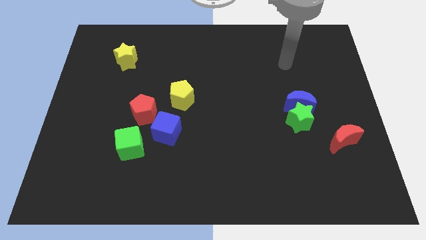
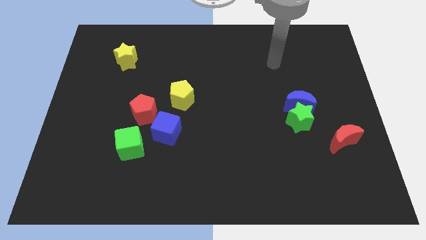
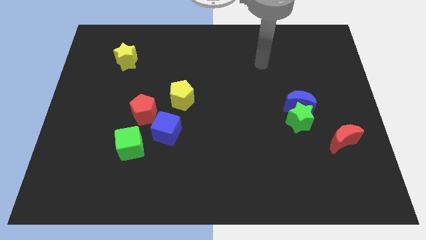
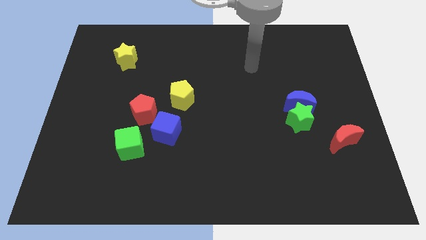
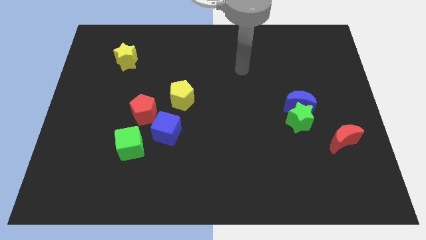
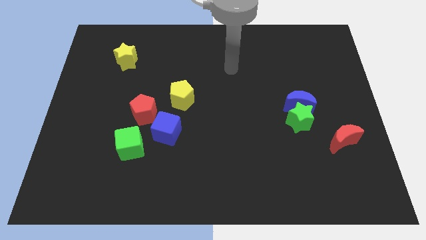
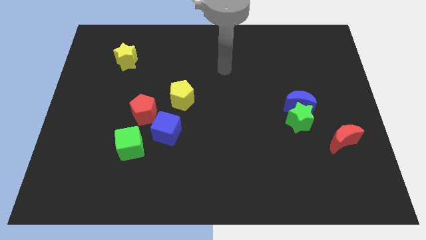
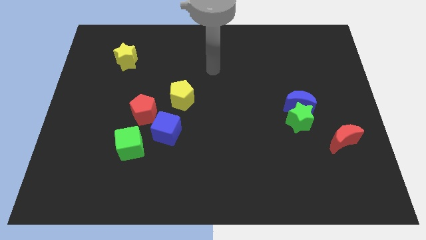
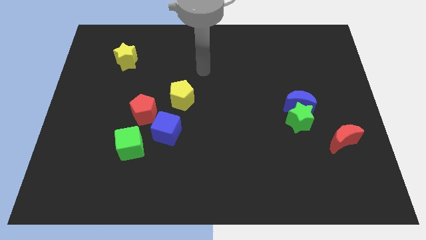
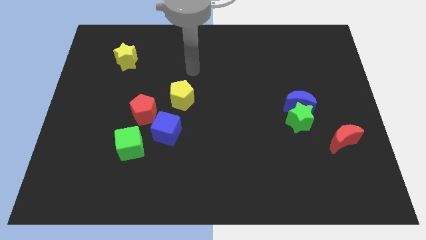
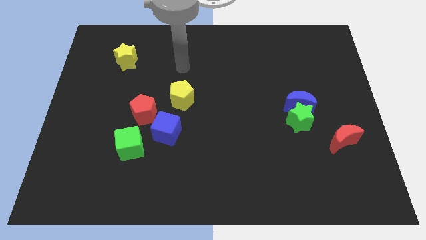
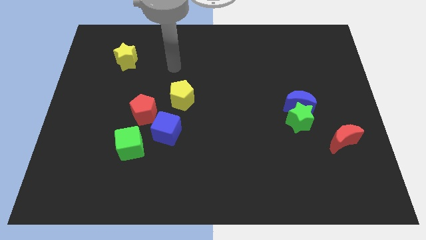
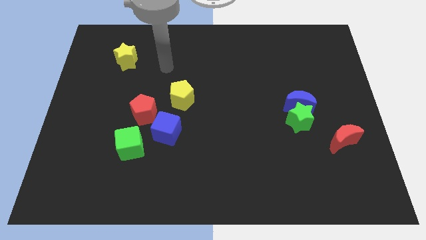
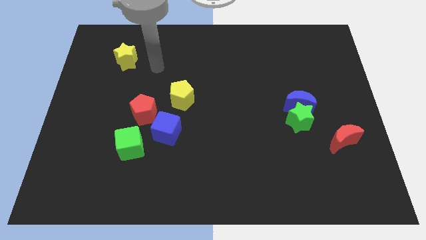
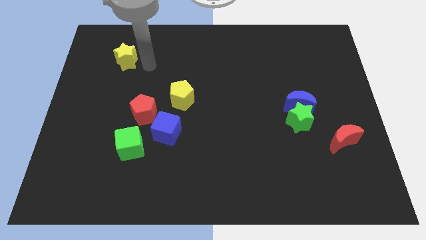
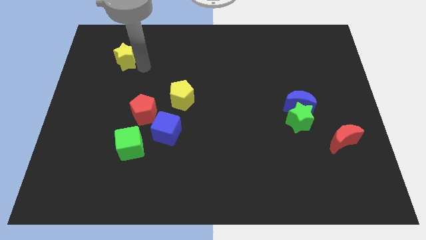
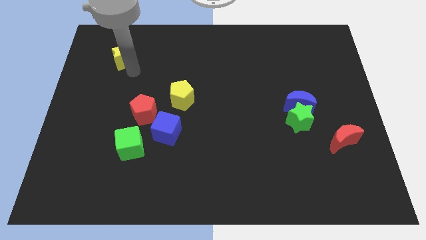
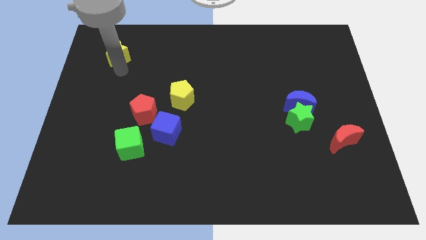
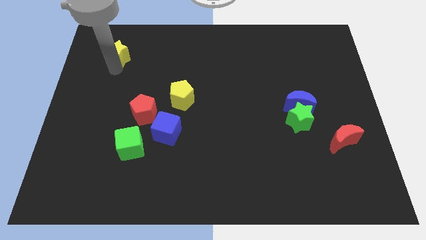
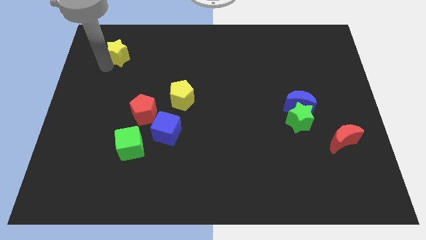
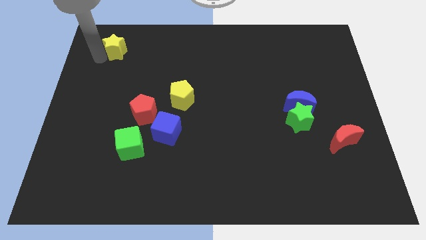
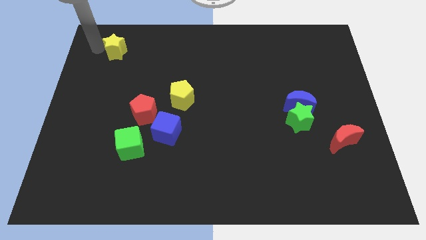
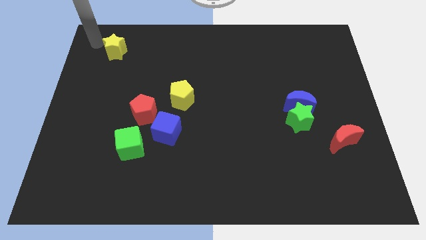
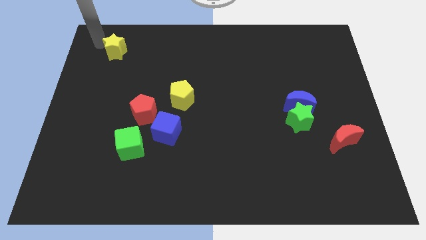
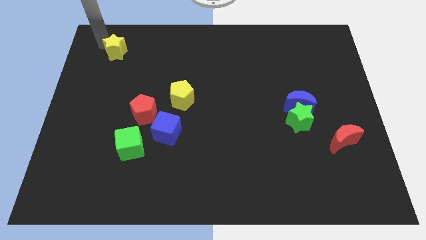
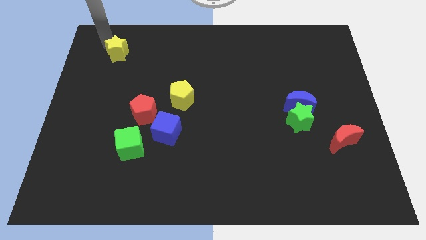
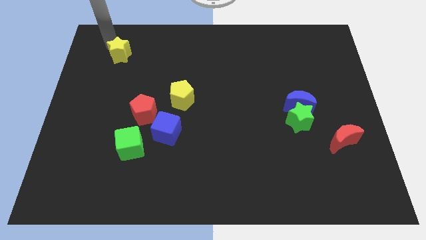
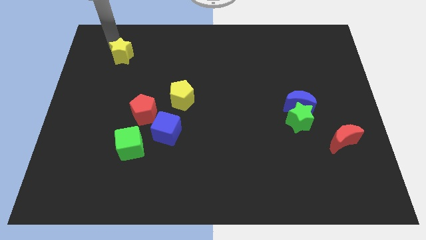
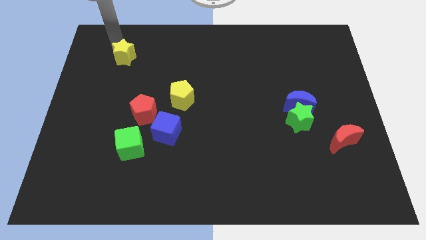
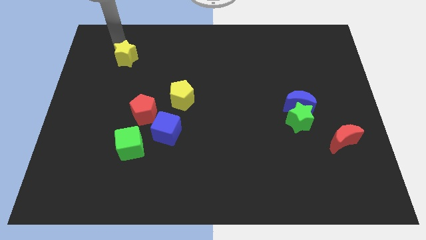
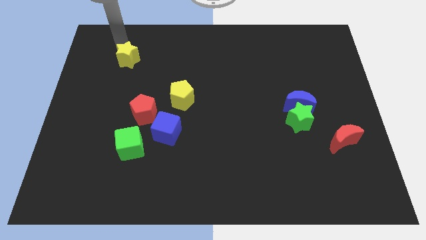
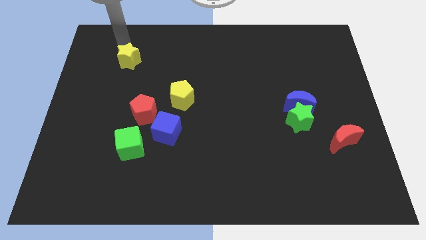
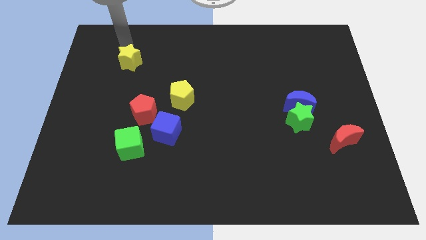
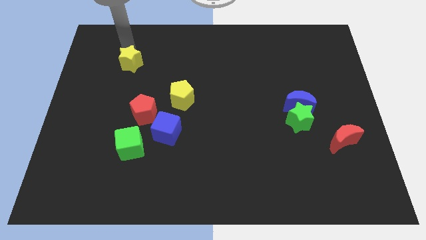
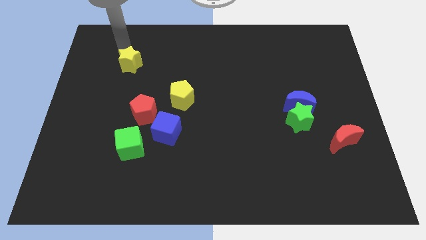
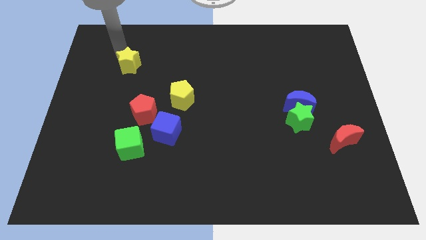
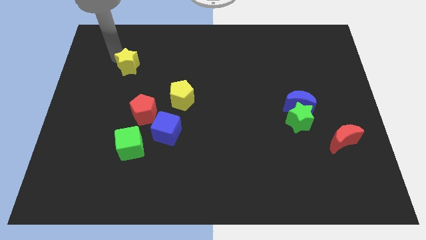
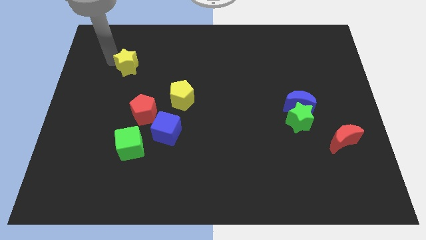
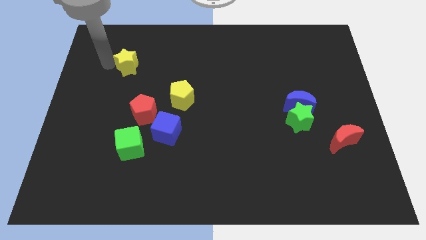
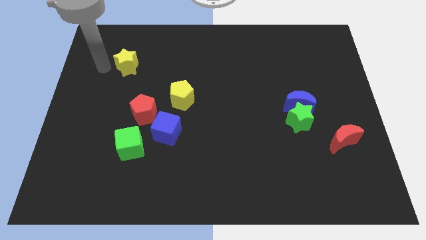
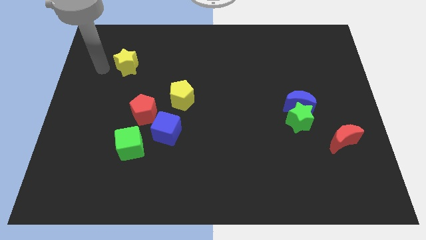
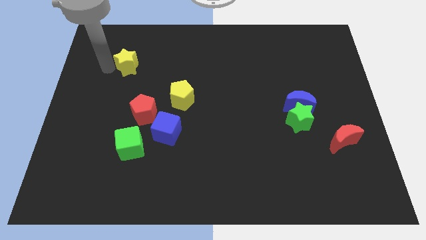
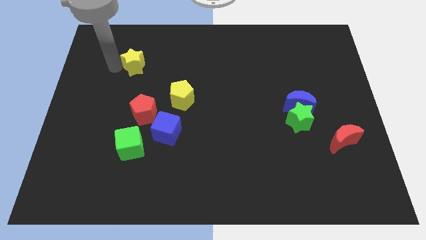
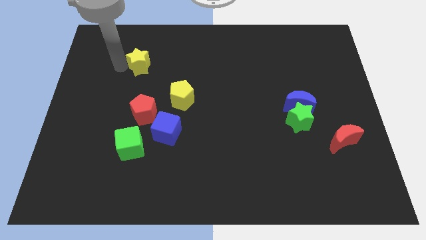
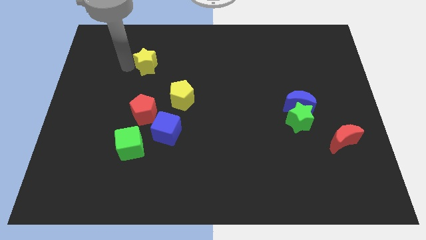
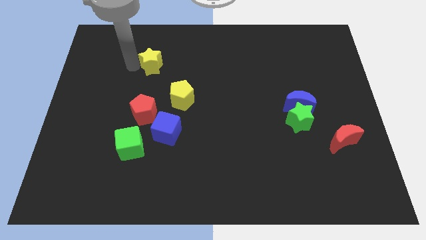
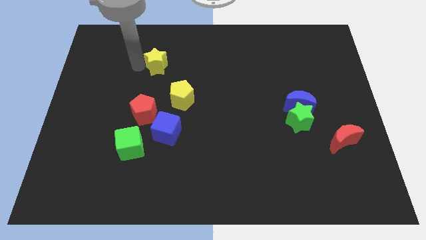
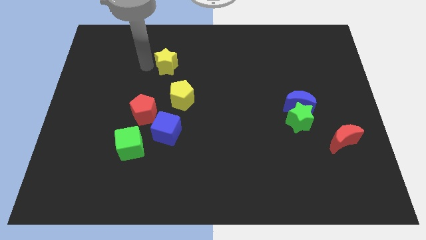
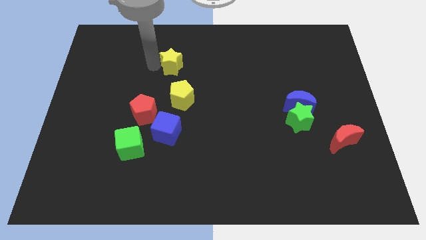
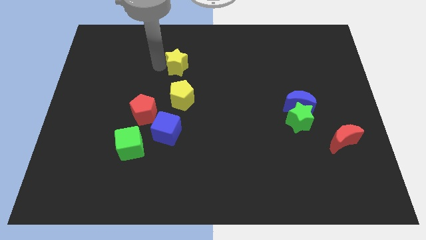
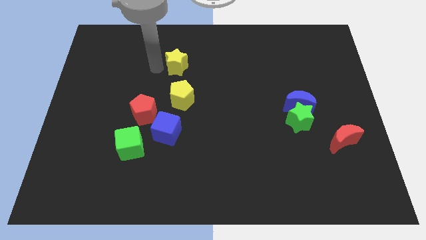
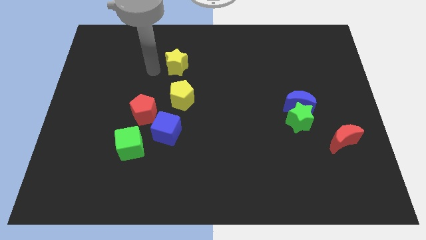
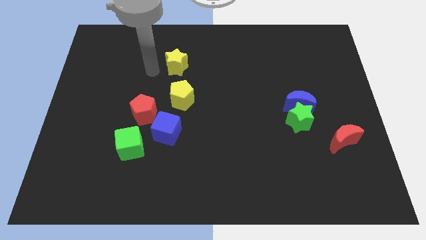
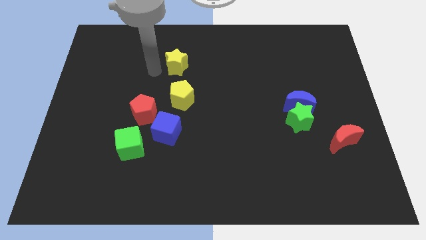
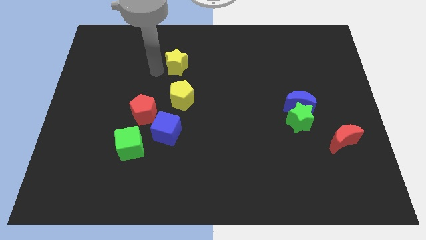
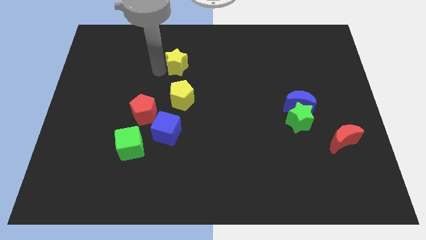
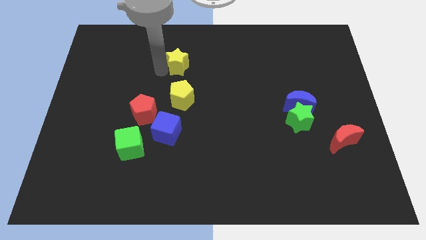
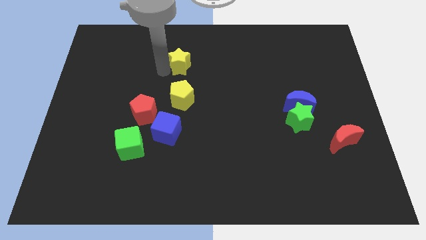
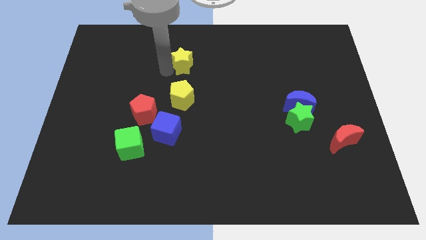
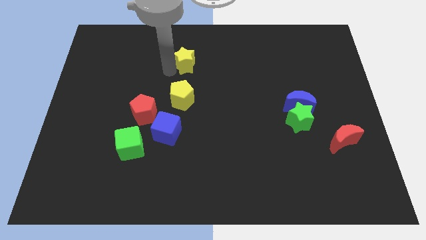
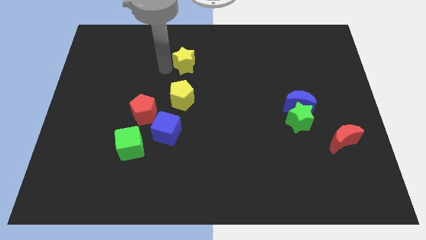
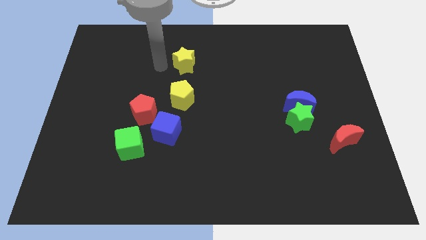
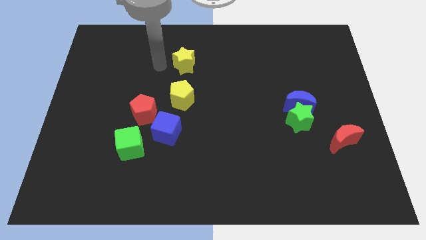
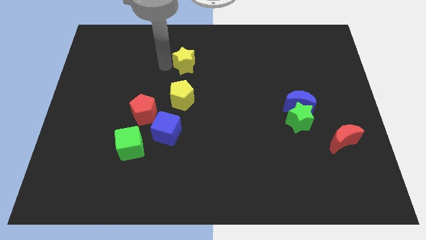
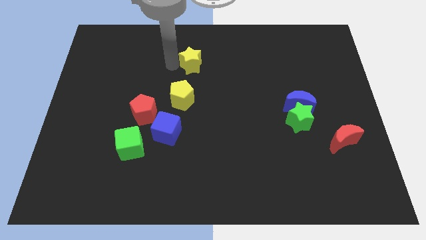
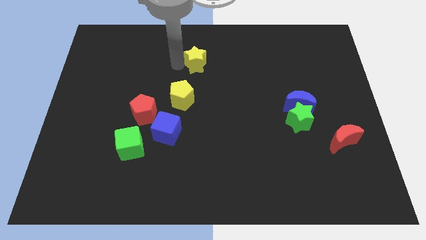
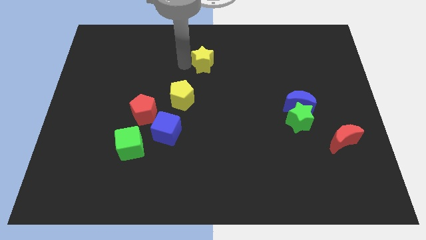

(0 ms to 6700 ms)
slide the yellow star to the right

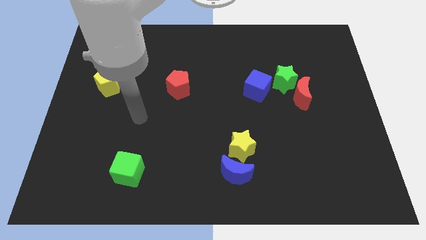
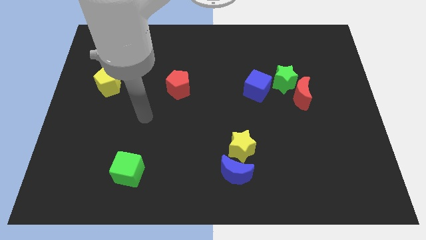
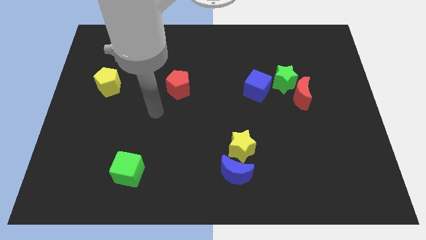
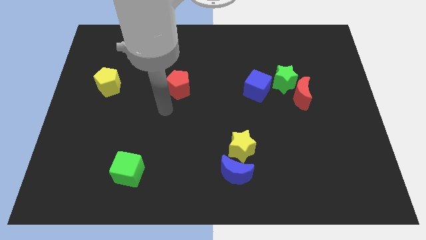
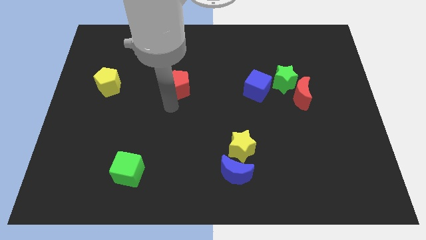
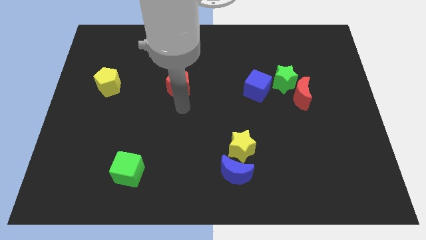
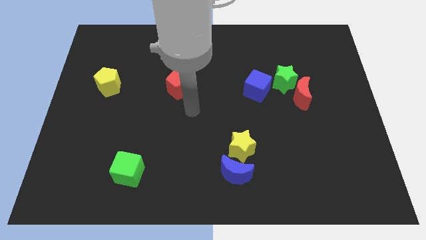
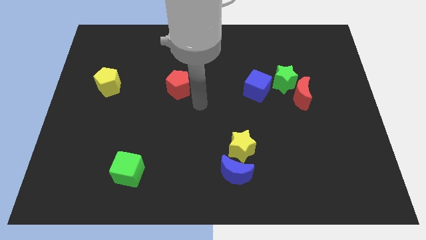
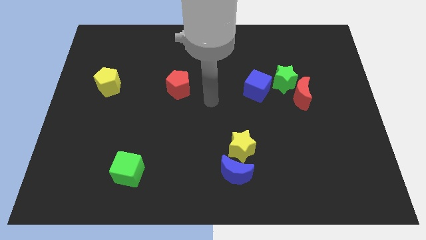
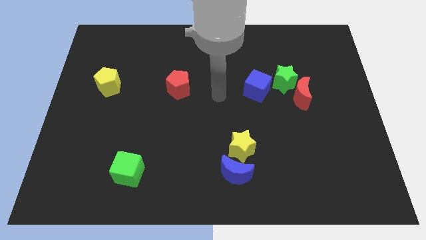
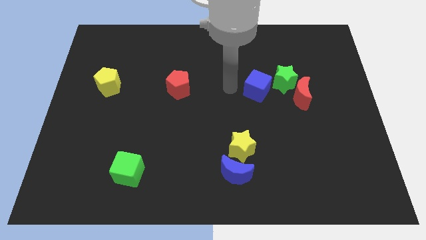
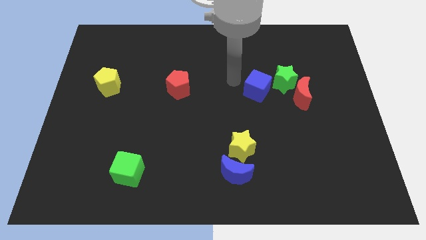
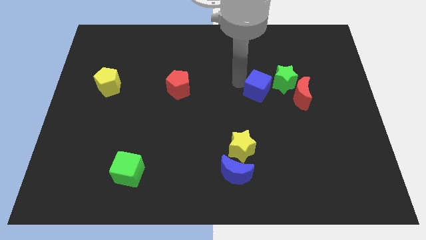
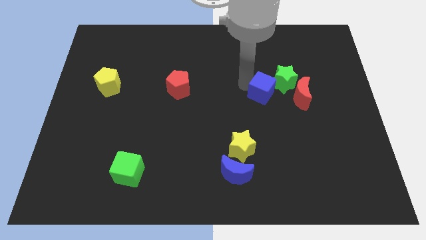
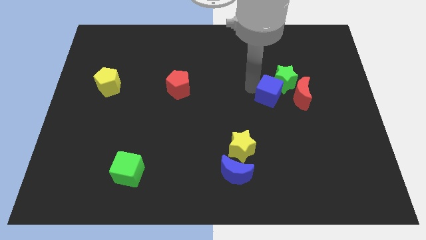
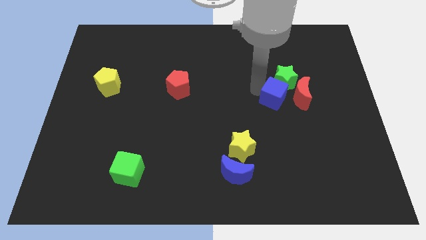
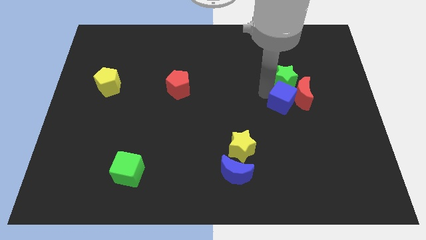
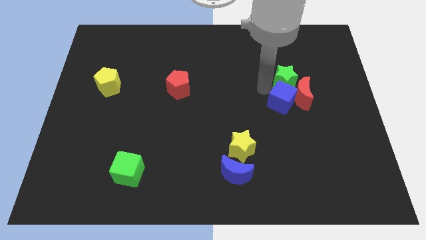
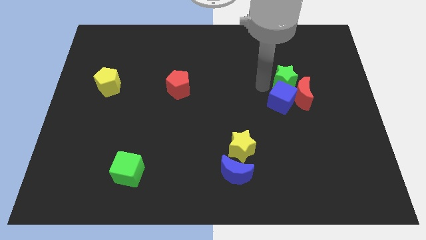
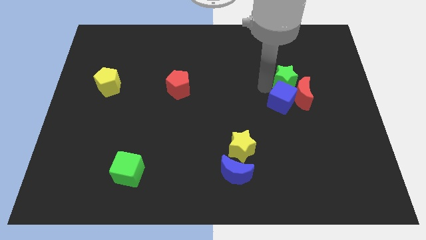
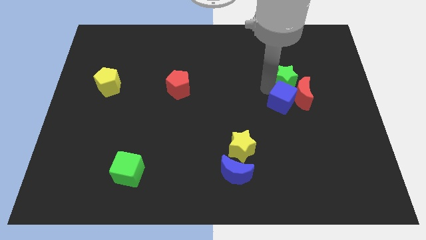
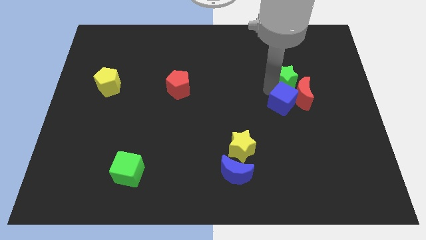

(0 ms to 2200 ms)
slightly move the blue cube diagonally downwards and to the right
